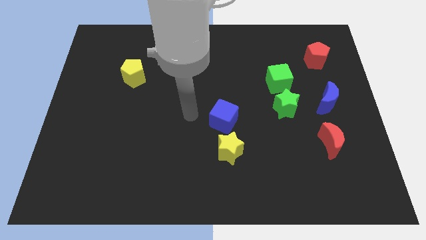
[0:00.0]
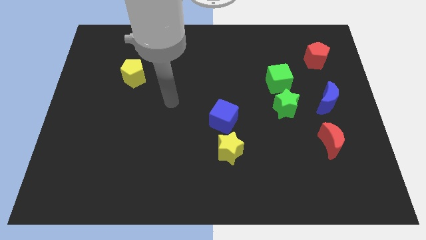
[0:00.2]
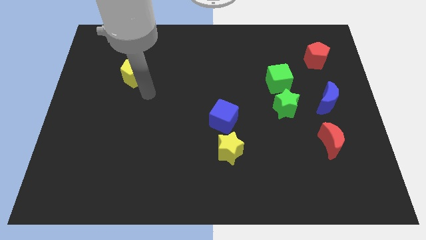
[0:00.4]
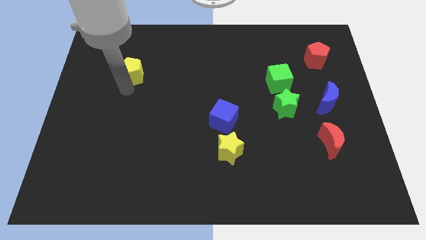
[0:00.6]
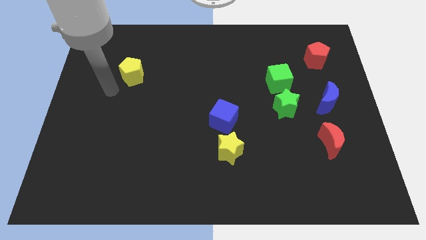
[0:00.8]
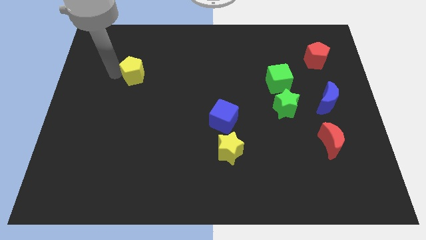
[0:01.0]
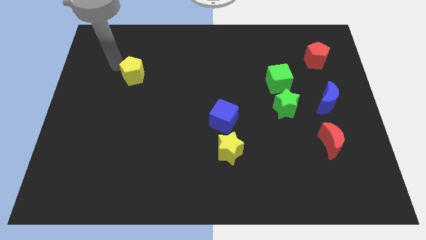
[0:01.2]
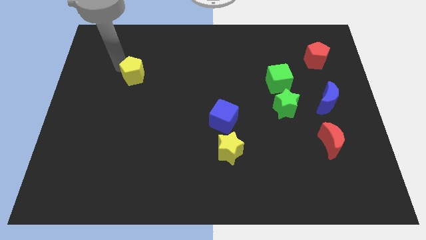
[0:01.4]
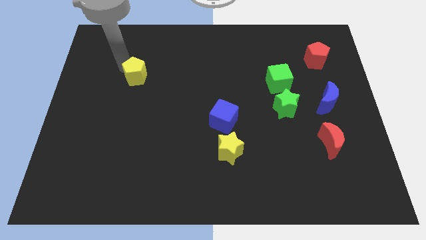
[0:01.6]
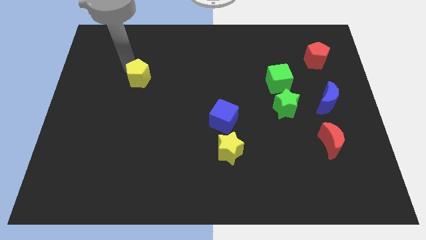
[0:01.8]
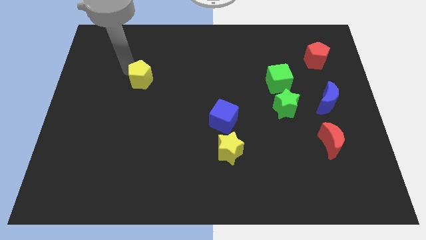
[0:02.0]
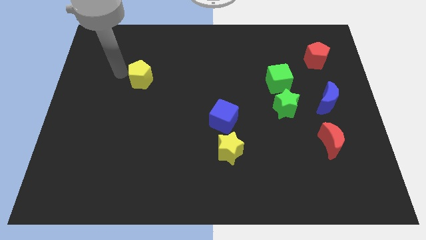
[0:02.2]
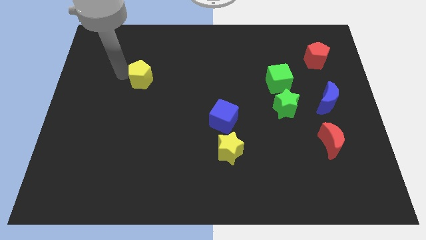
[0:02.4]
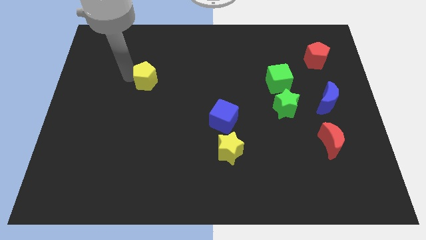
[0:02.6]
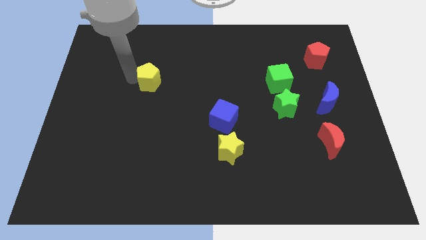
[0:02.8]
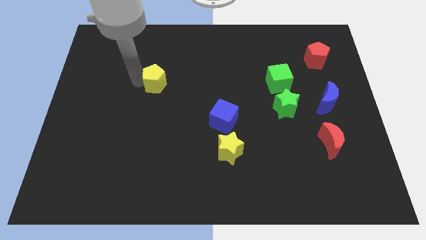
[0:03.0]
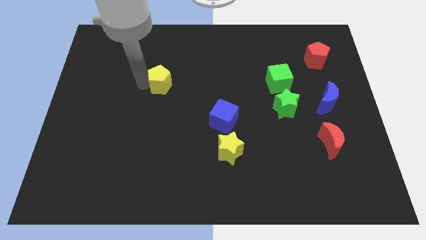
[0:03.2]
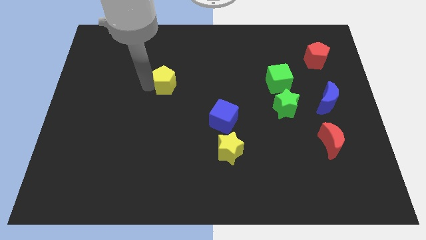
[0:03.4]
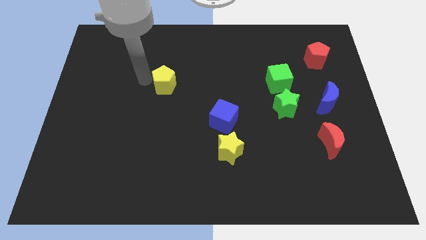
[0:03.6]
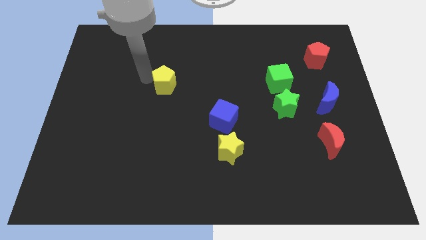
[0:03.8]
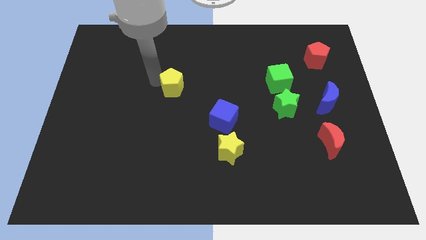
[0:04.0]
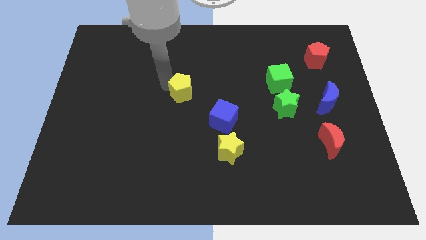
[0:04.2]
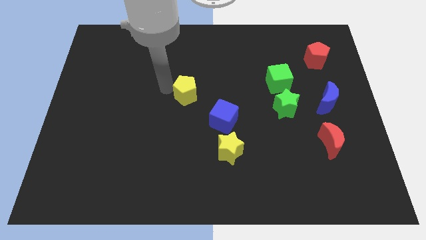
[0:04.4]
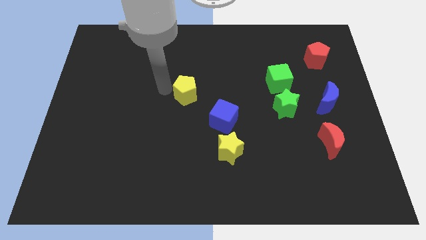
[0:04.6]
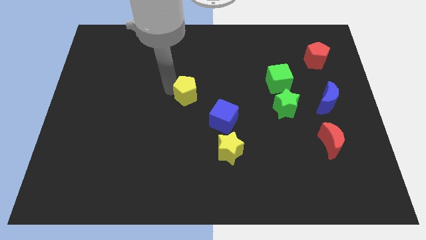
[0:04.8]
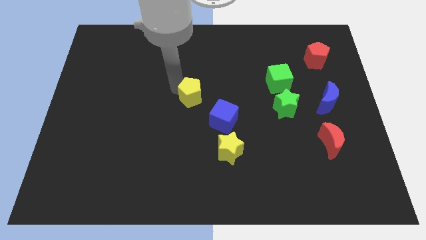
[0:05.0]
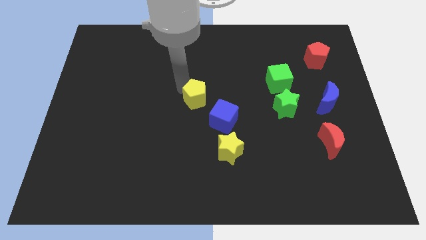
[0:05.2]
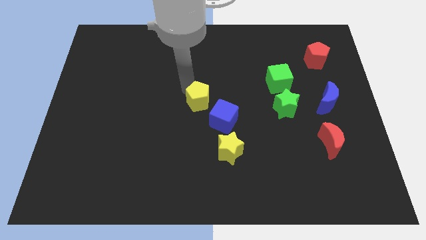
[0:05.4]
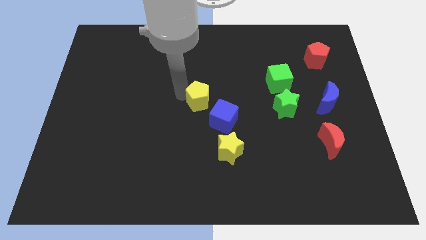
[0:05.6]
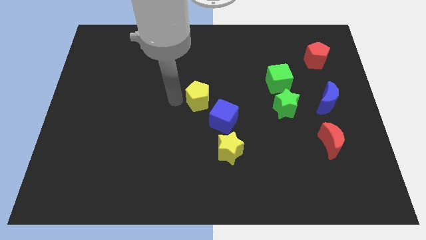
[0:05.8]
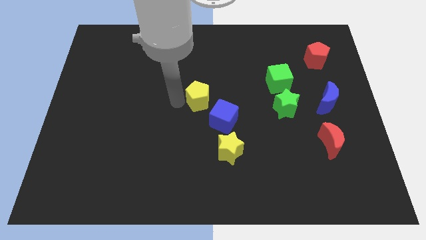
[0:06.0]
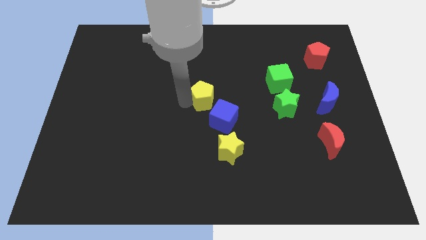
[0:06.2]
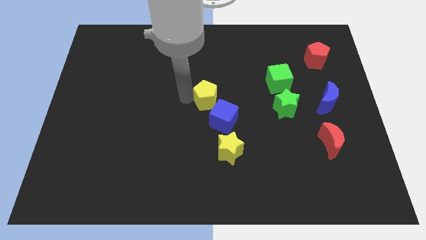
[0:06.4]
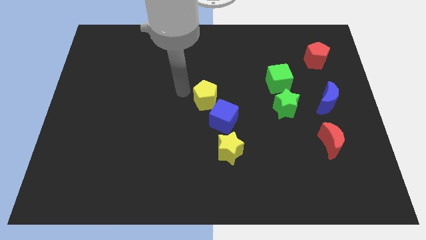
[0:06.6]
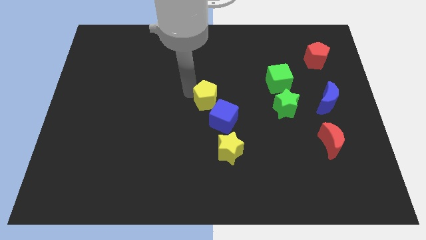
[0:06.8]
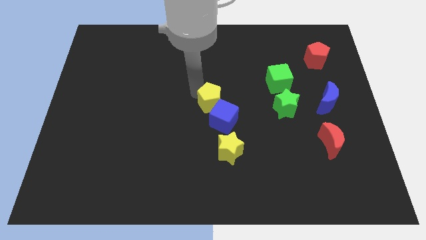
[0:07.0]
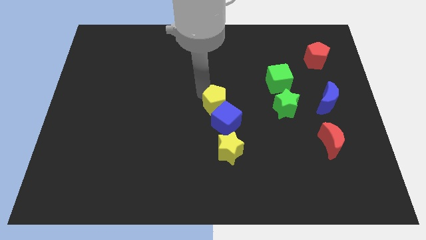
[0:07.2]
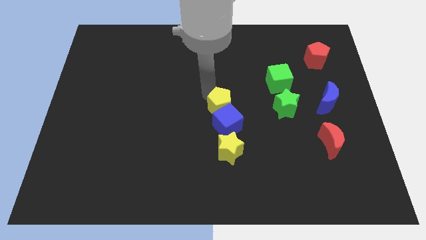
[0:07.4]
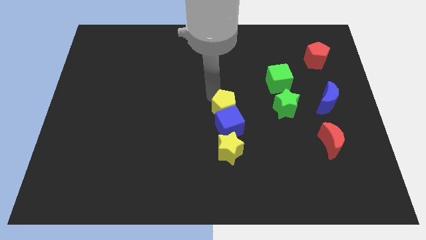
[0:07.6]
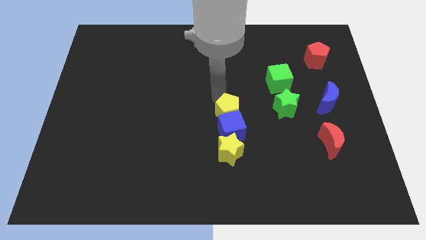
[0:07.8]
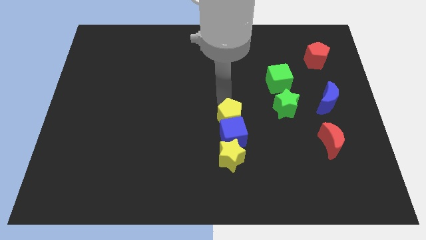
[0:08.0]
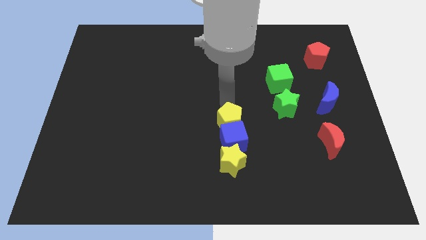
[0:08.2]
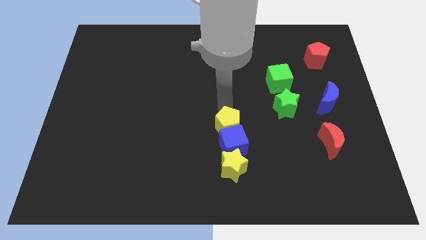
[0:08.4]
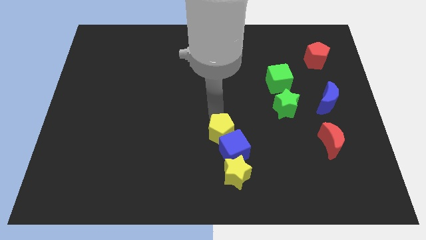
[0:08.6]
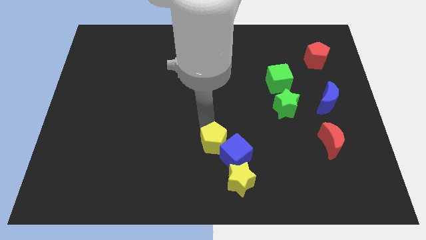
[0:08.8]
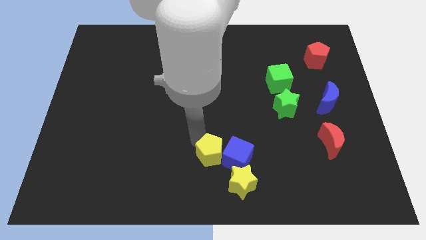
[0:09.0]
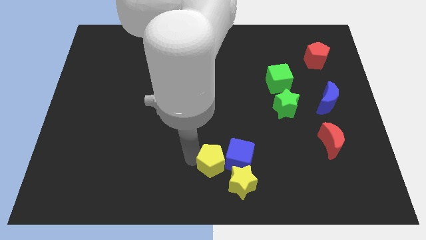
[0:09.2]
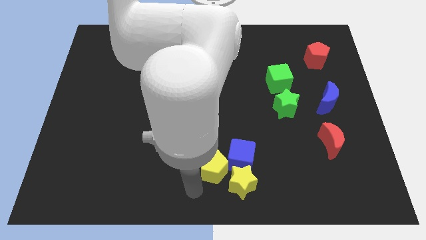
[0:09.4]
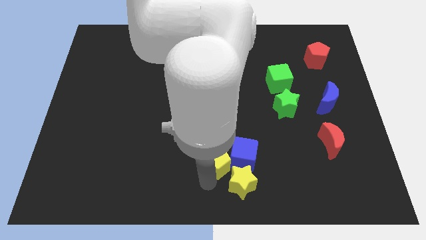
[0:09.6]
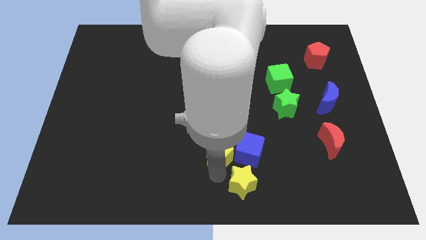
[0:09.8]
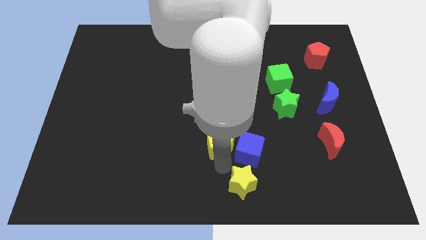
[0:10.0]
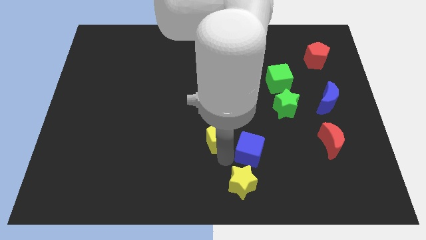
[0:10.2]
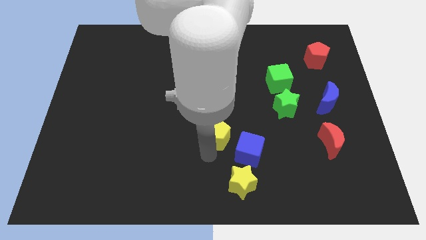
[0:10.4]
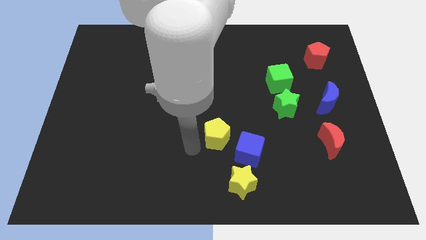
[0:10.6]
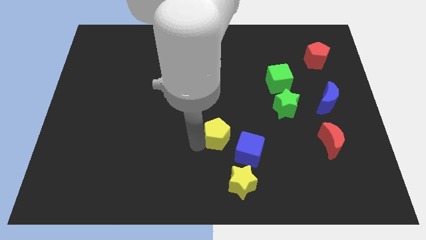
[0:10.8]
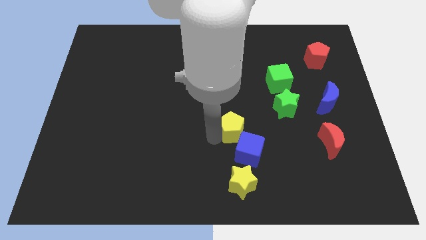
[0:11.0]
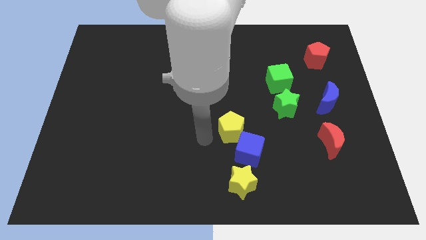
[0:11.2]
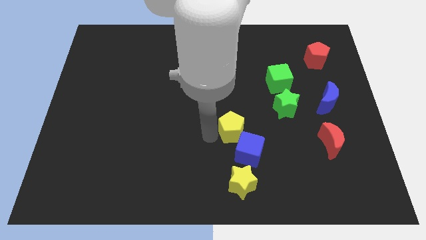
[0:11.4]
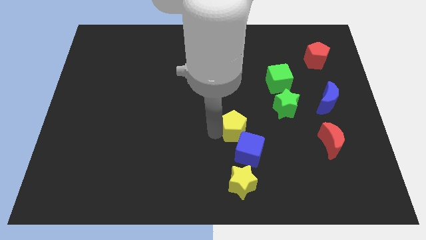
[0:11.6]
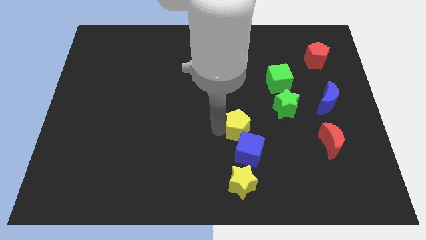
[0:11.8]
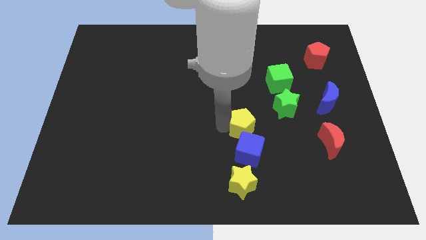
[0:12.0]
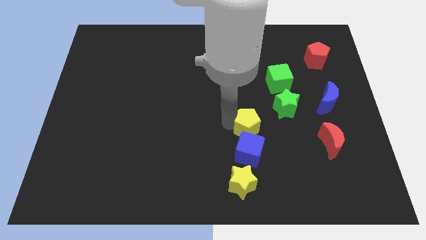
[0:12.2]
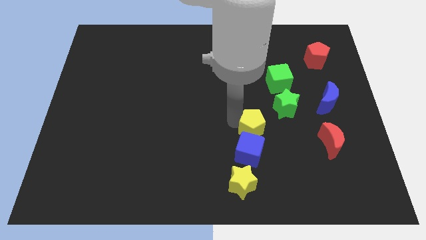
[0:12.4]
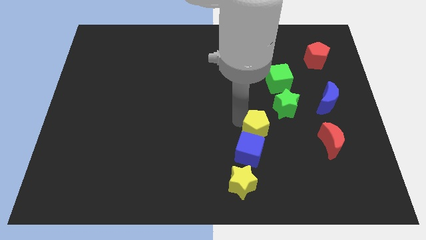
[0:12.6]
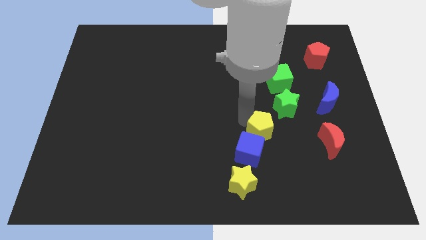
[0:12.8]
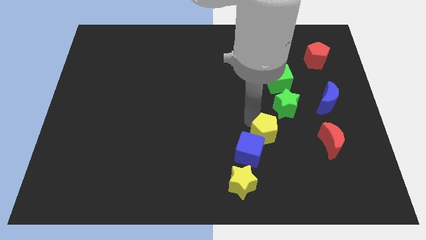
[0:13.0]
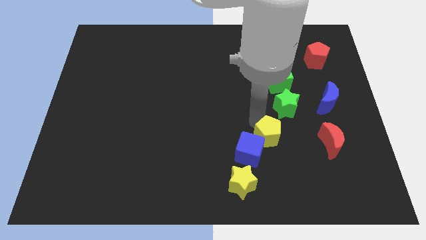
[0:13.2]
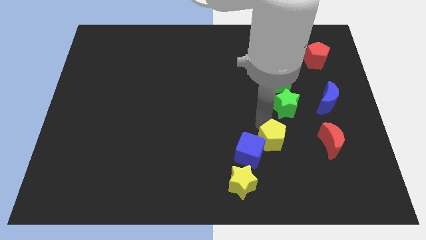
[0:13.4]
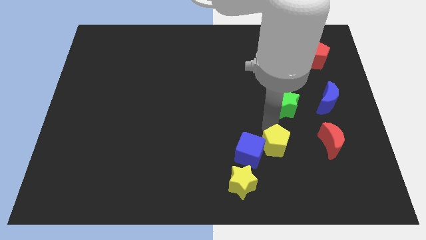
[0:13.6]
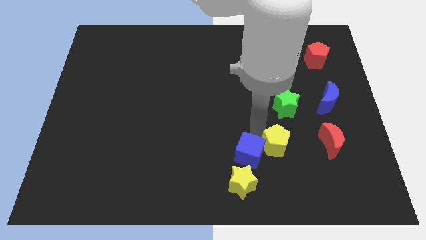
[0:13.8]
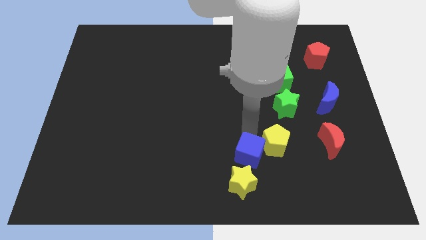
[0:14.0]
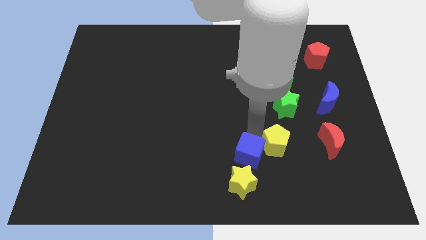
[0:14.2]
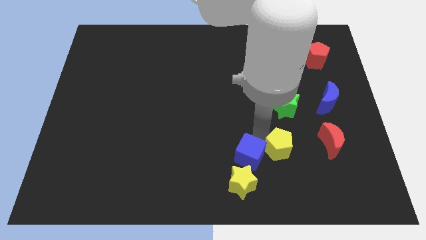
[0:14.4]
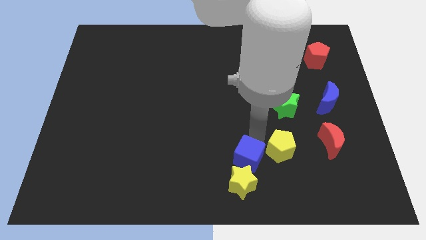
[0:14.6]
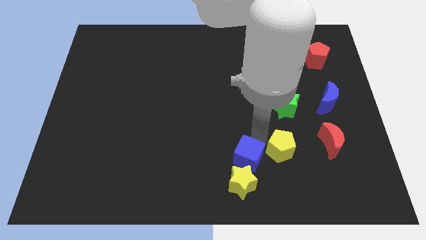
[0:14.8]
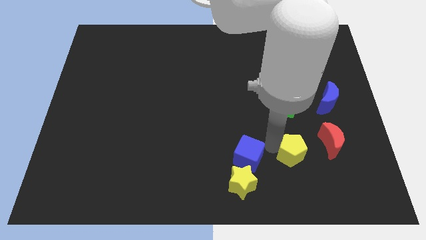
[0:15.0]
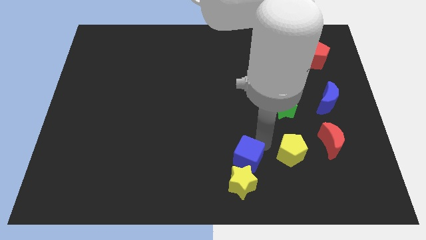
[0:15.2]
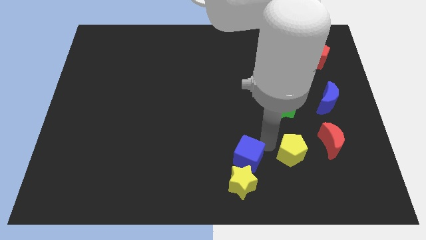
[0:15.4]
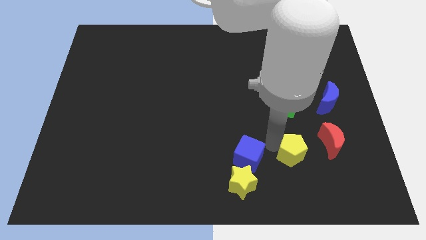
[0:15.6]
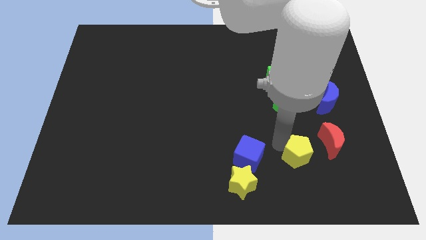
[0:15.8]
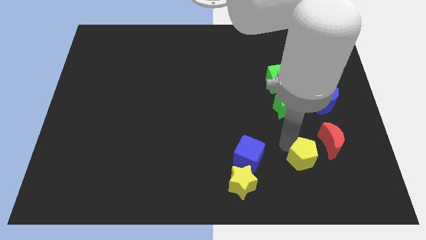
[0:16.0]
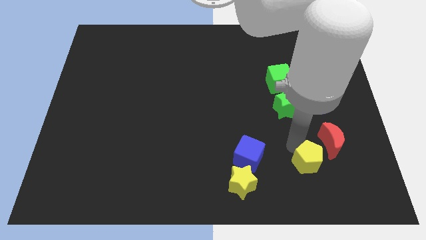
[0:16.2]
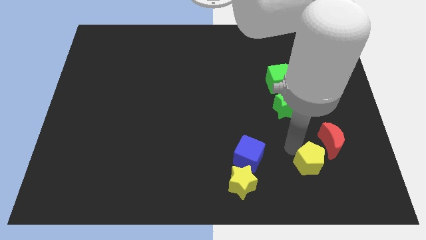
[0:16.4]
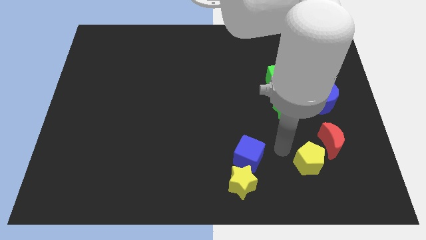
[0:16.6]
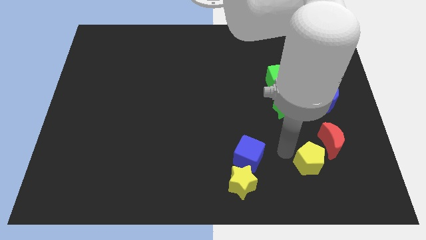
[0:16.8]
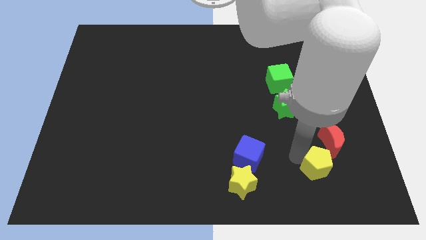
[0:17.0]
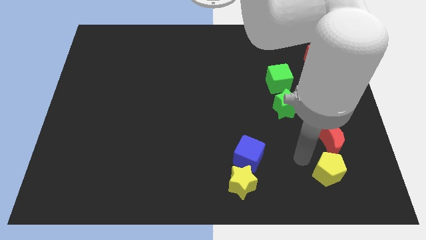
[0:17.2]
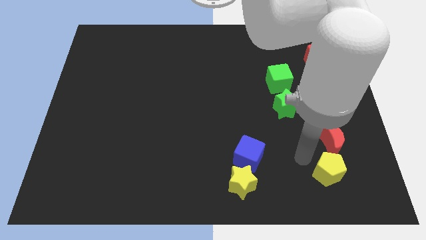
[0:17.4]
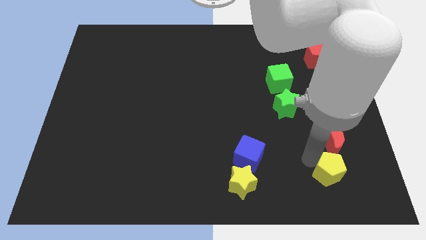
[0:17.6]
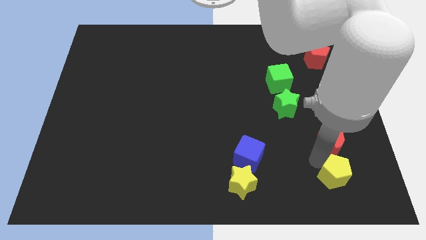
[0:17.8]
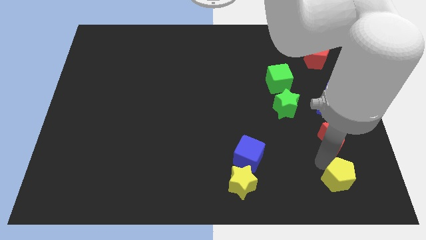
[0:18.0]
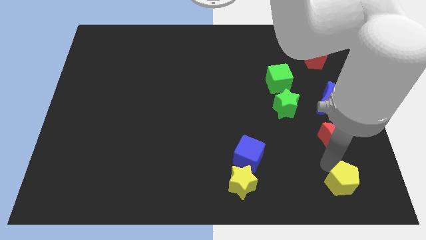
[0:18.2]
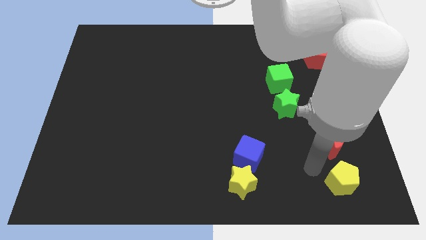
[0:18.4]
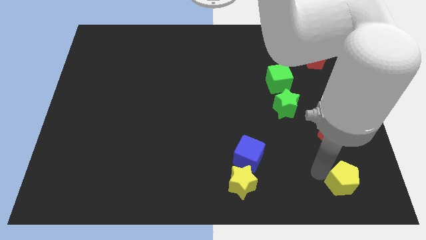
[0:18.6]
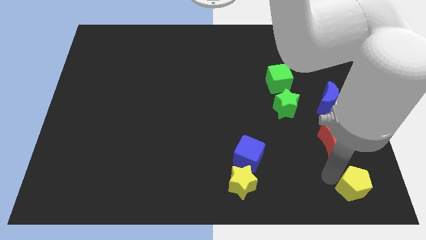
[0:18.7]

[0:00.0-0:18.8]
push the yellow pentagon to the lower right corner
